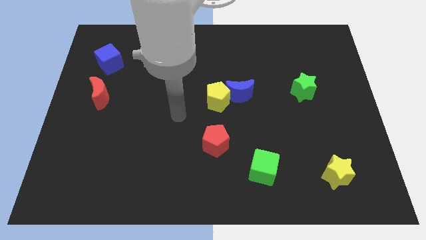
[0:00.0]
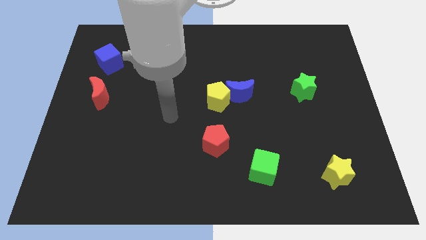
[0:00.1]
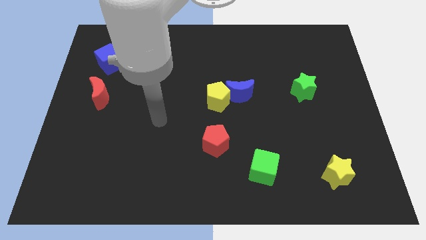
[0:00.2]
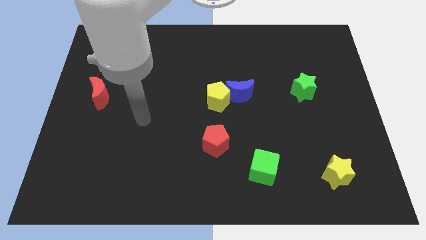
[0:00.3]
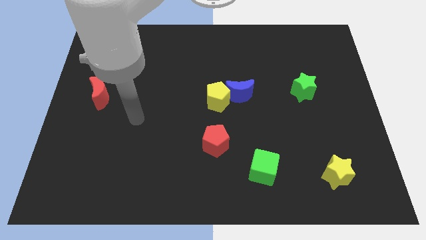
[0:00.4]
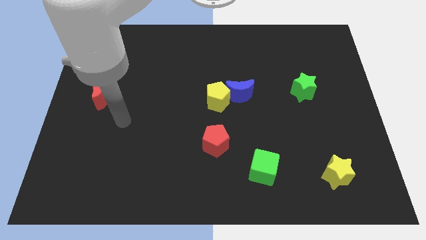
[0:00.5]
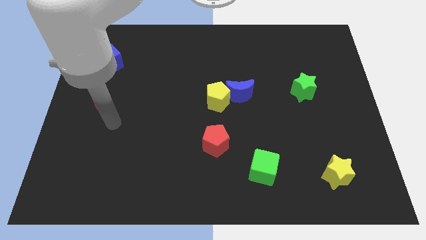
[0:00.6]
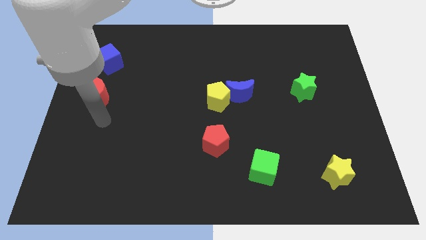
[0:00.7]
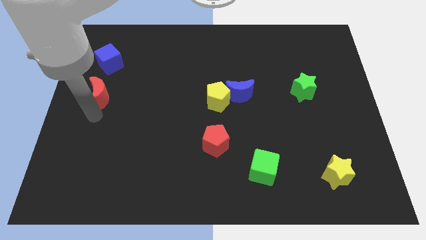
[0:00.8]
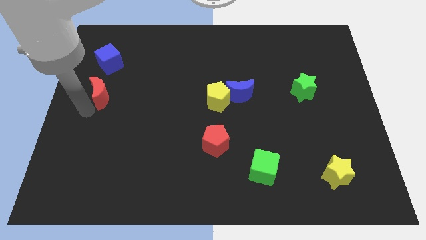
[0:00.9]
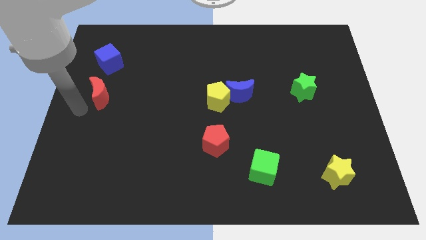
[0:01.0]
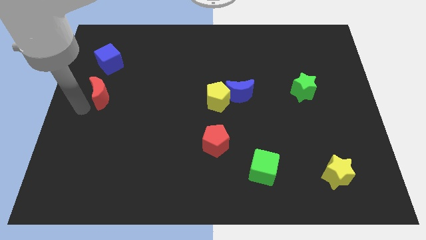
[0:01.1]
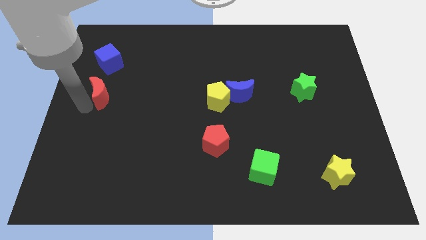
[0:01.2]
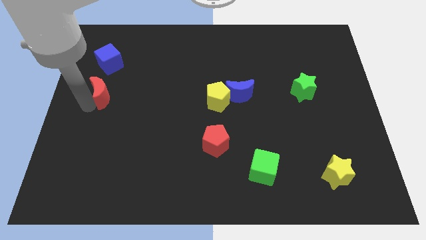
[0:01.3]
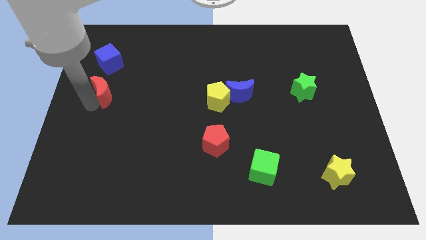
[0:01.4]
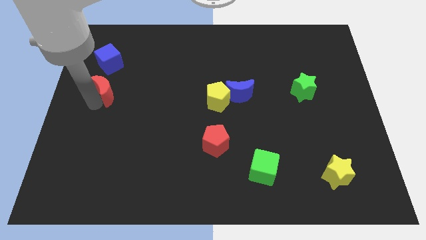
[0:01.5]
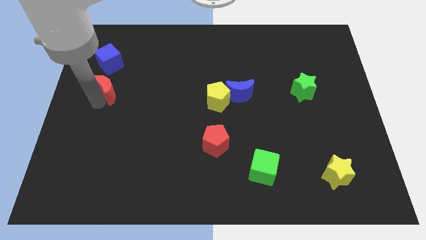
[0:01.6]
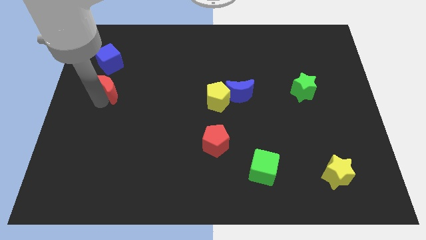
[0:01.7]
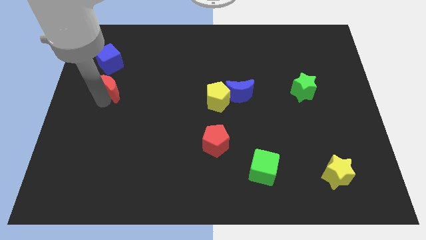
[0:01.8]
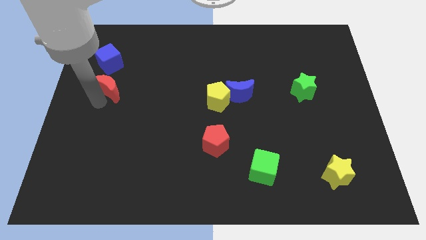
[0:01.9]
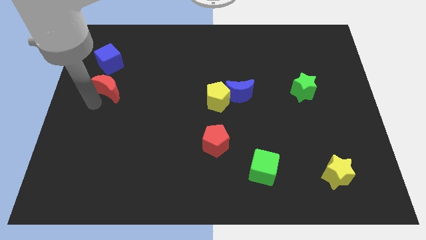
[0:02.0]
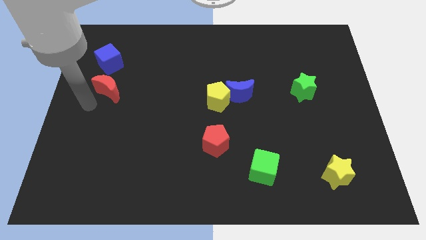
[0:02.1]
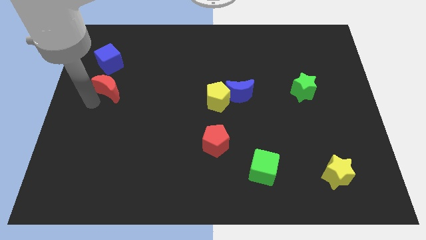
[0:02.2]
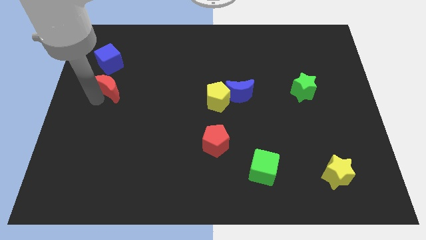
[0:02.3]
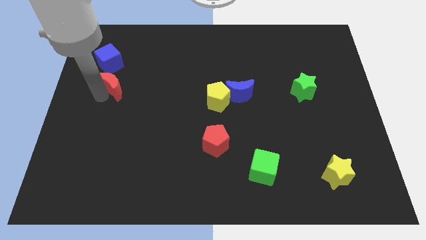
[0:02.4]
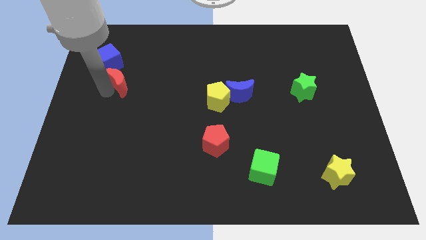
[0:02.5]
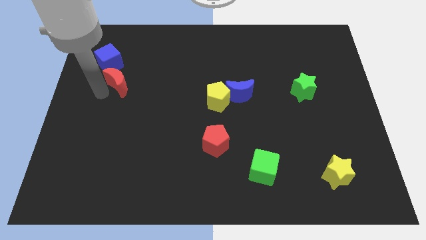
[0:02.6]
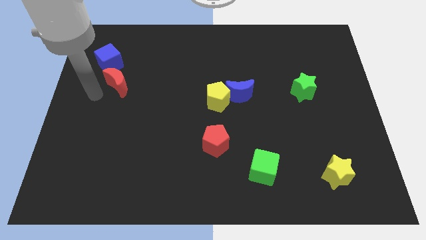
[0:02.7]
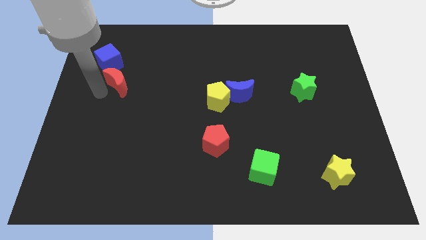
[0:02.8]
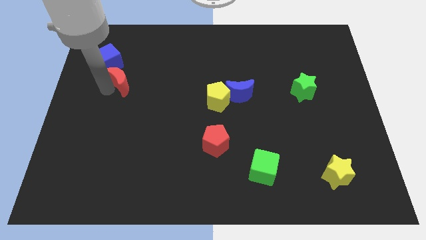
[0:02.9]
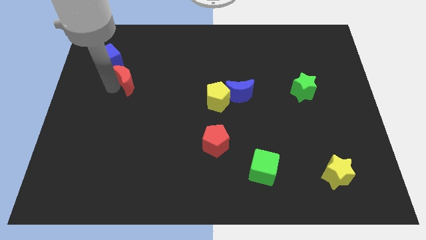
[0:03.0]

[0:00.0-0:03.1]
move the red moon a bit upwards and right diagonally

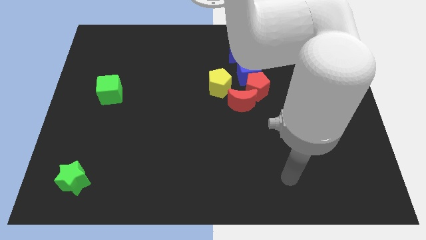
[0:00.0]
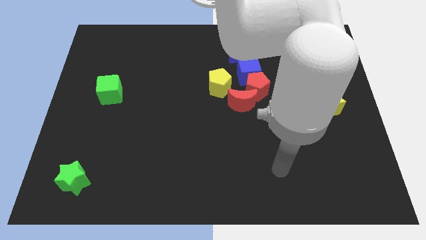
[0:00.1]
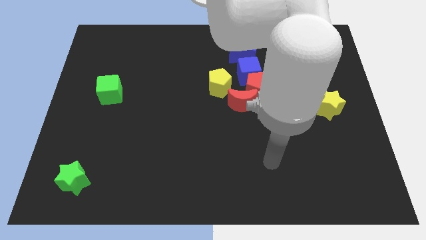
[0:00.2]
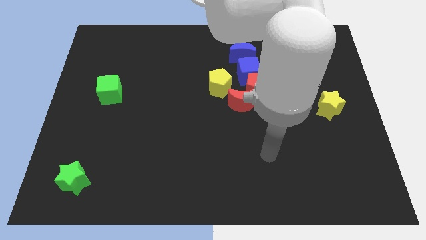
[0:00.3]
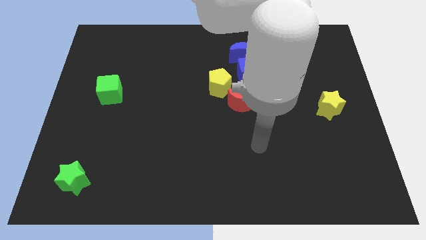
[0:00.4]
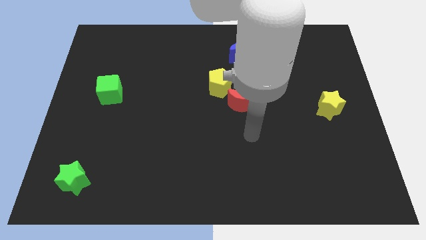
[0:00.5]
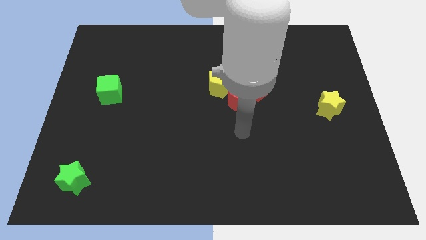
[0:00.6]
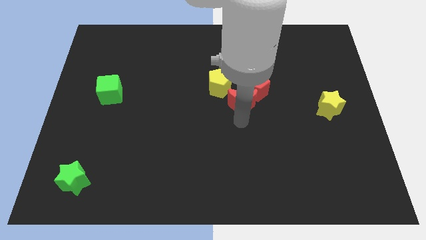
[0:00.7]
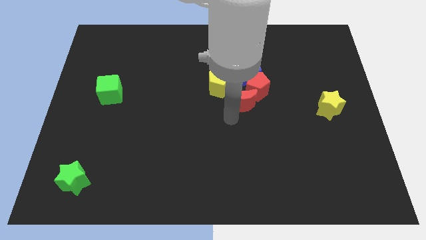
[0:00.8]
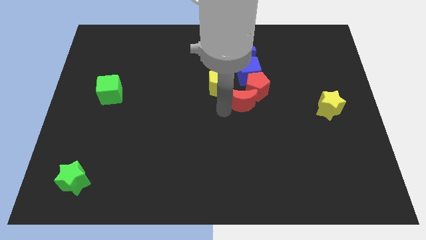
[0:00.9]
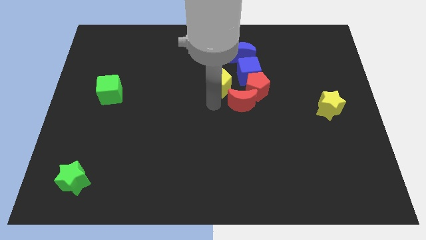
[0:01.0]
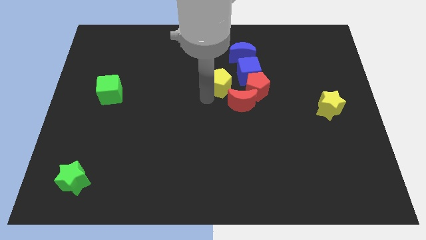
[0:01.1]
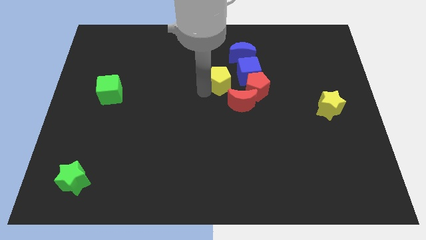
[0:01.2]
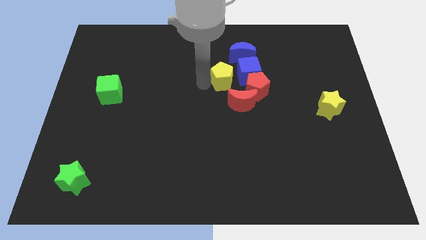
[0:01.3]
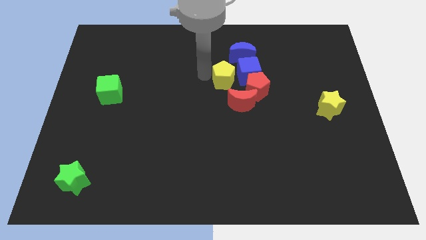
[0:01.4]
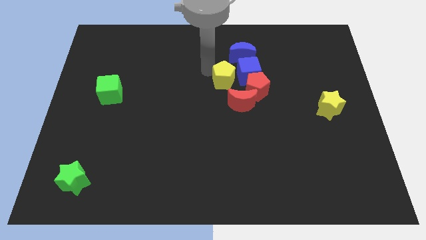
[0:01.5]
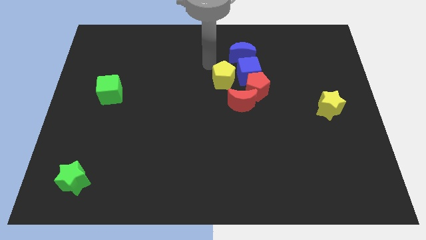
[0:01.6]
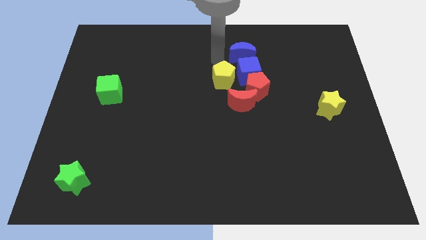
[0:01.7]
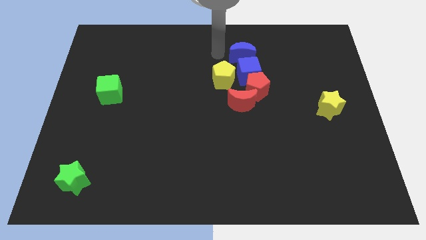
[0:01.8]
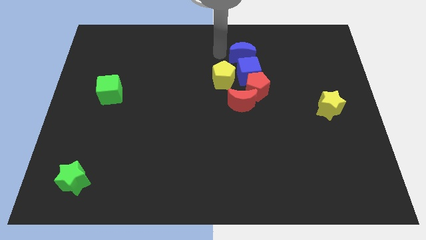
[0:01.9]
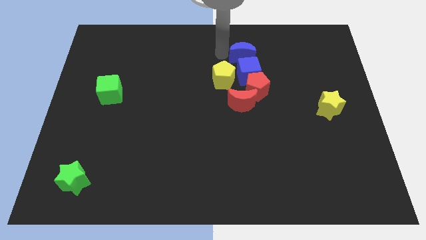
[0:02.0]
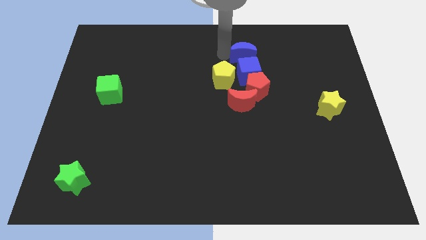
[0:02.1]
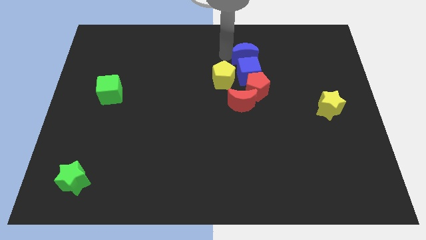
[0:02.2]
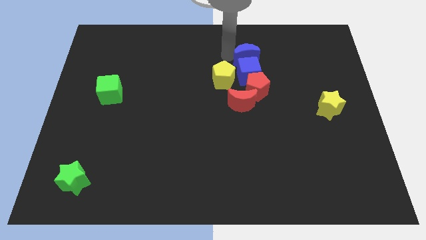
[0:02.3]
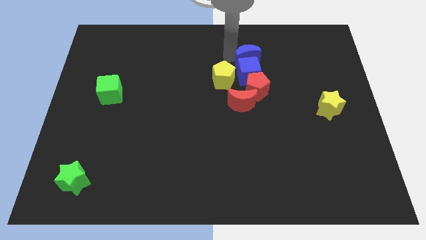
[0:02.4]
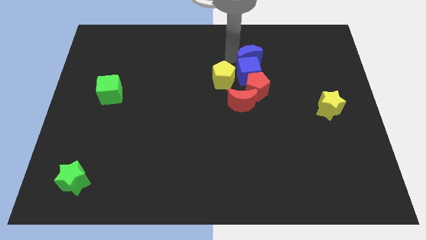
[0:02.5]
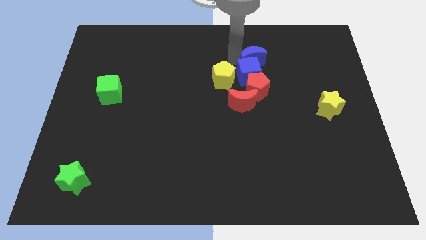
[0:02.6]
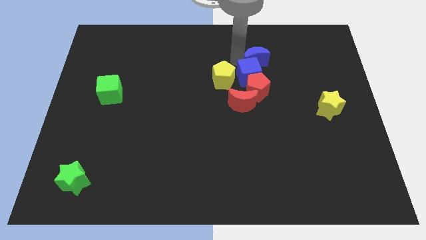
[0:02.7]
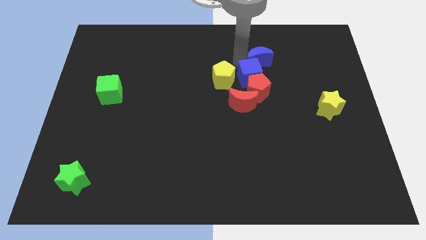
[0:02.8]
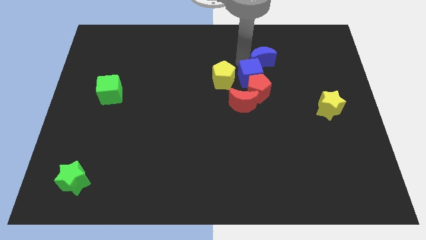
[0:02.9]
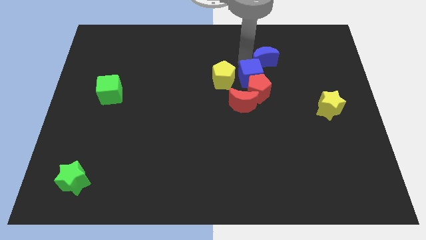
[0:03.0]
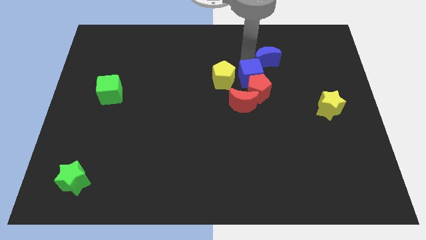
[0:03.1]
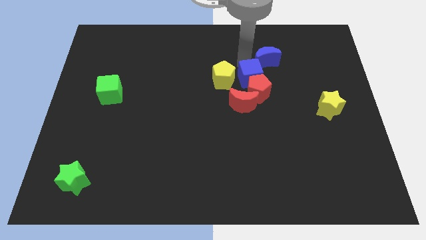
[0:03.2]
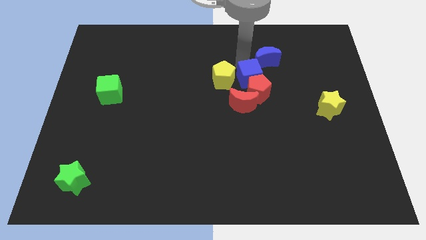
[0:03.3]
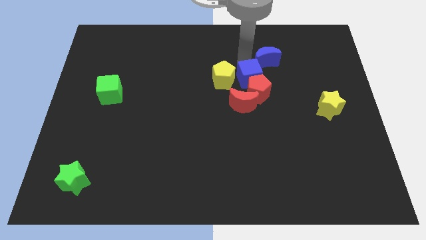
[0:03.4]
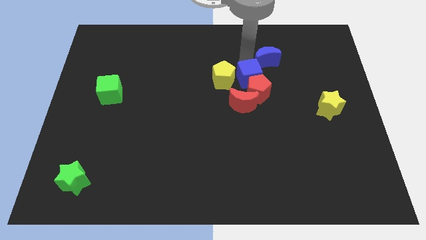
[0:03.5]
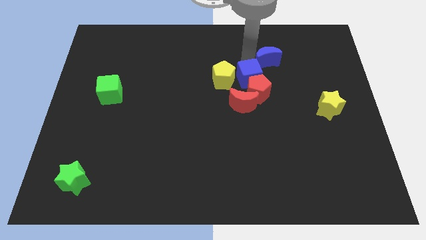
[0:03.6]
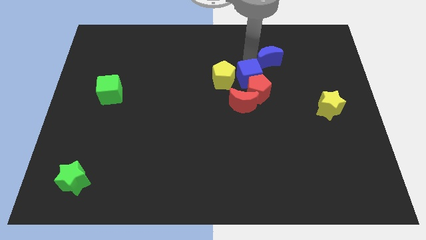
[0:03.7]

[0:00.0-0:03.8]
push the blue moon right a bit

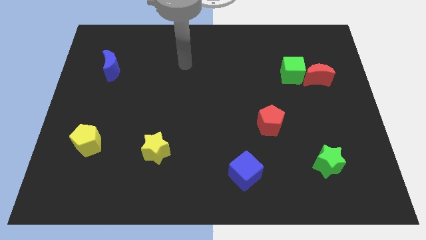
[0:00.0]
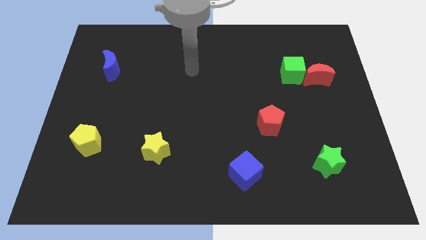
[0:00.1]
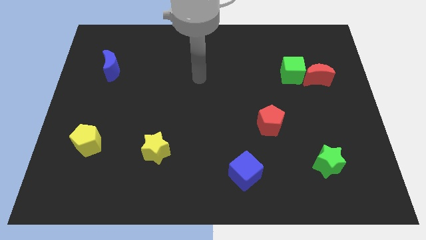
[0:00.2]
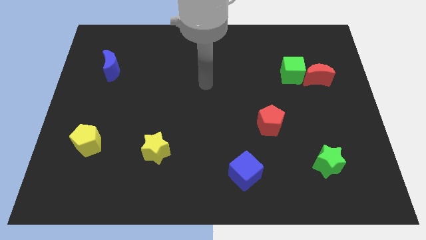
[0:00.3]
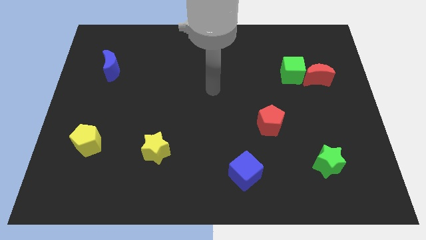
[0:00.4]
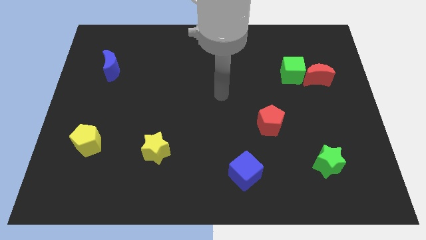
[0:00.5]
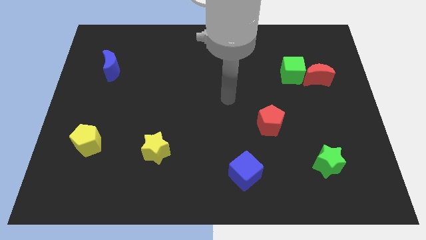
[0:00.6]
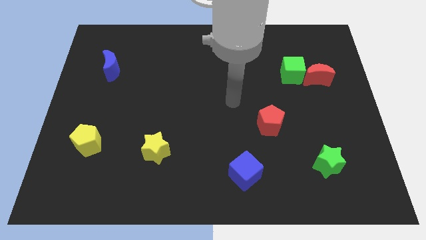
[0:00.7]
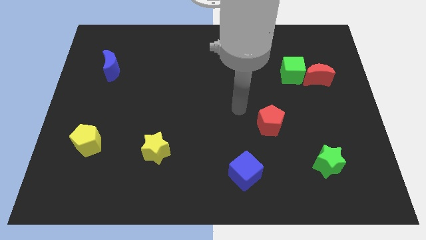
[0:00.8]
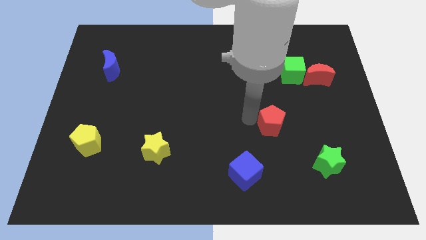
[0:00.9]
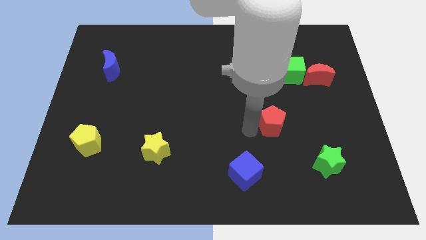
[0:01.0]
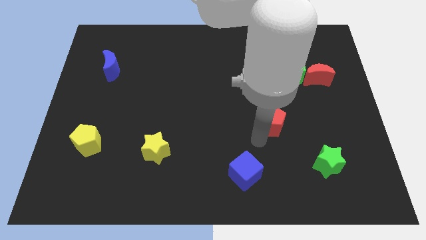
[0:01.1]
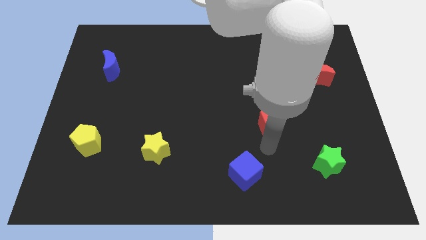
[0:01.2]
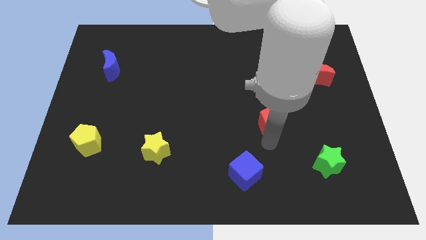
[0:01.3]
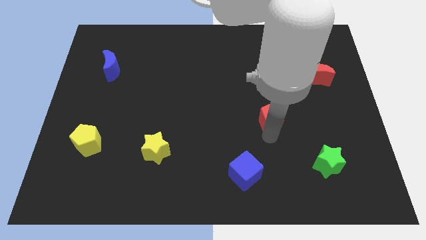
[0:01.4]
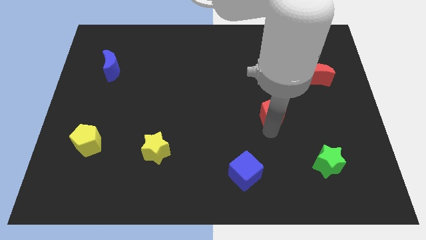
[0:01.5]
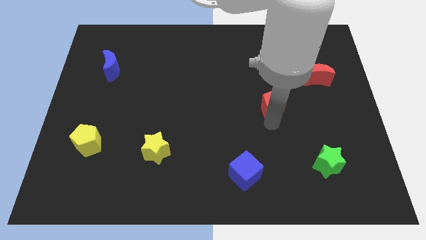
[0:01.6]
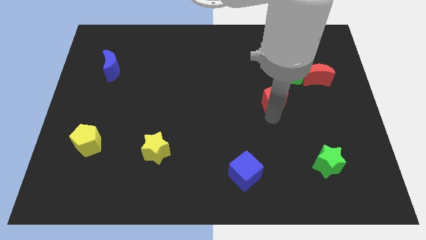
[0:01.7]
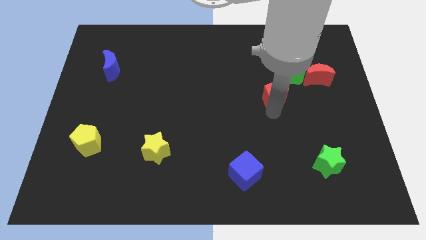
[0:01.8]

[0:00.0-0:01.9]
push the red pentagon up a little
